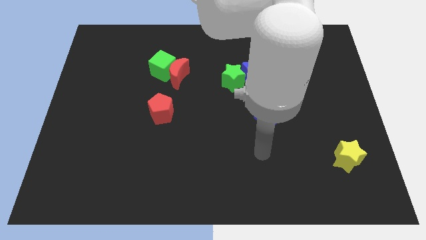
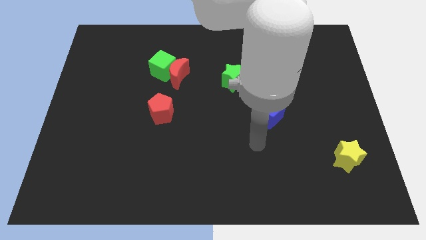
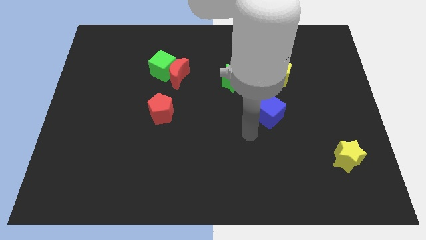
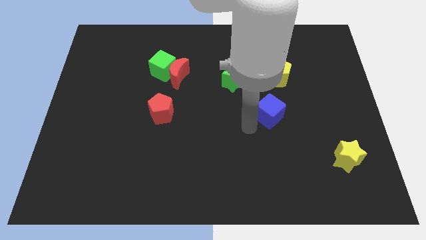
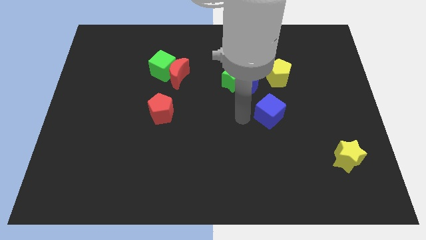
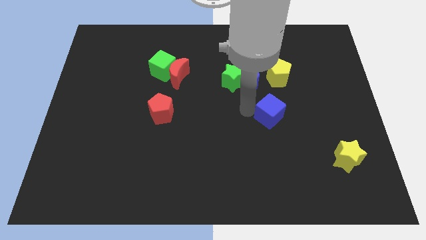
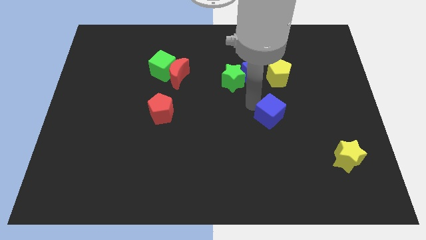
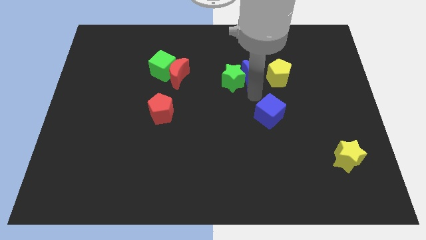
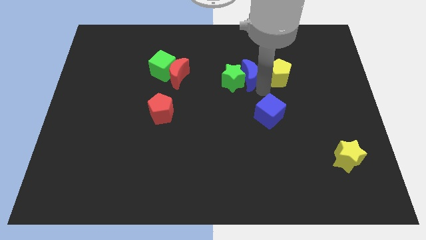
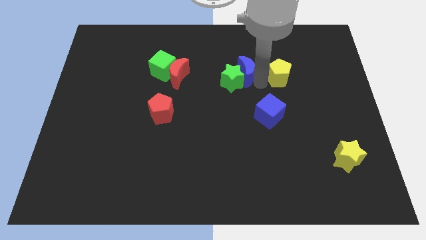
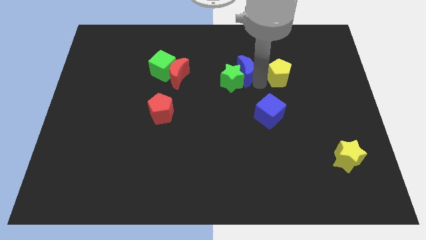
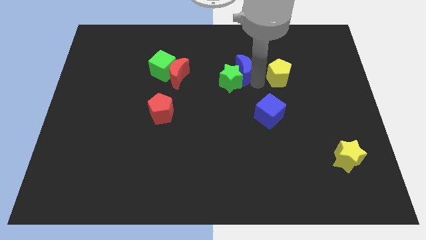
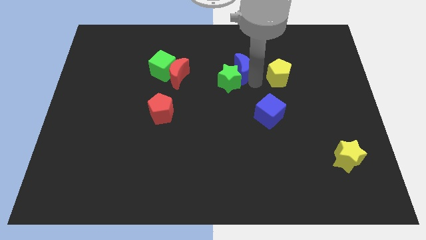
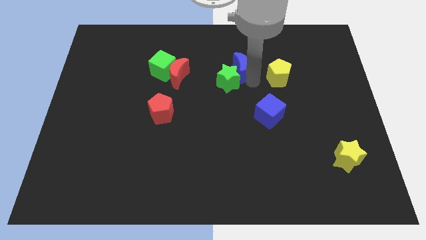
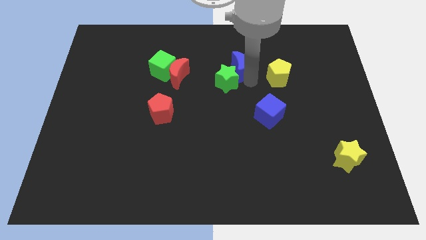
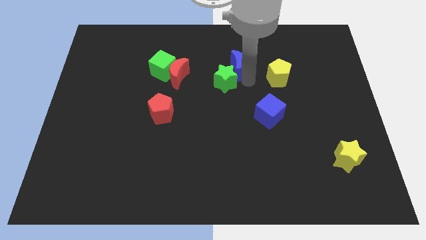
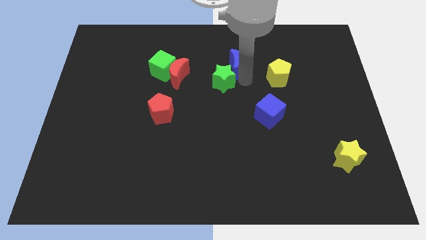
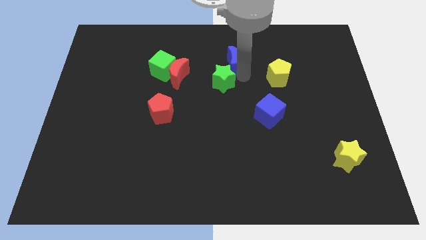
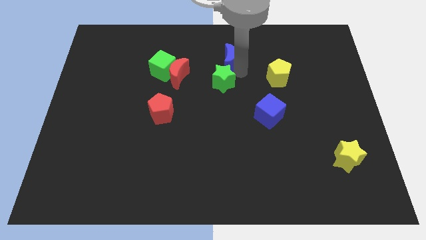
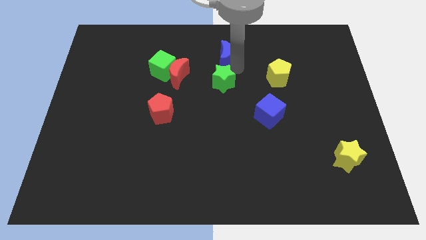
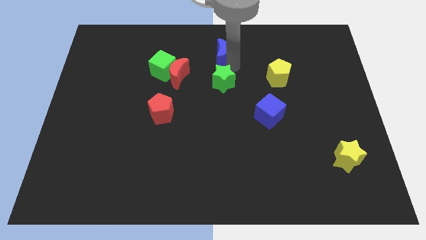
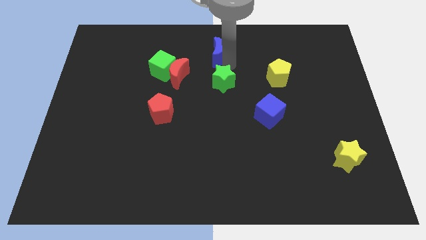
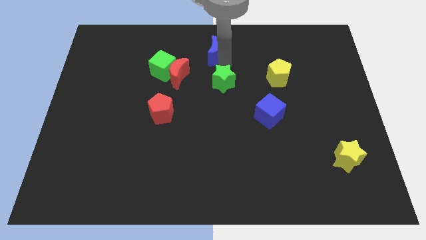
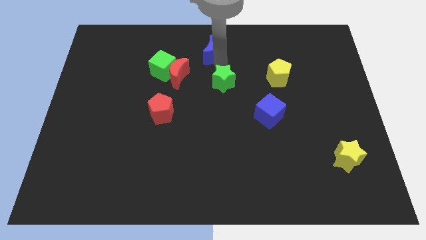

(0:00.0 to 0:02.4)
move the green star away from the blue moon

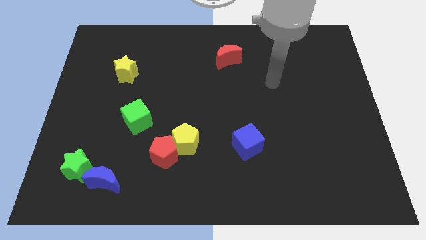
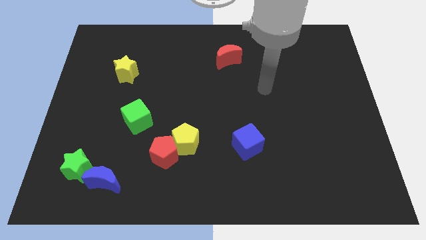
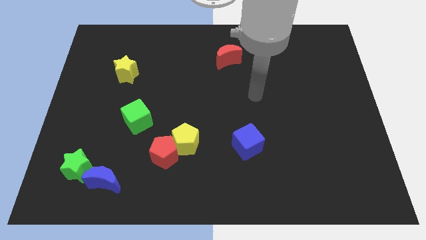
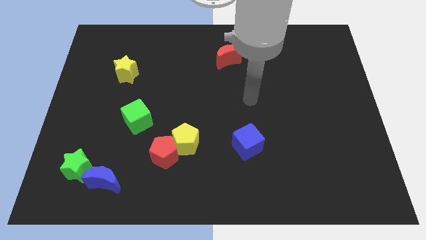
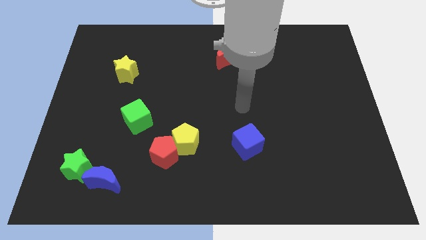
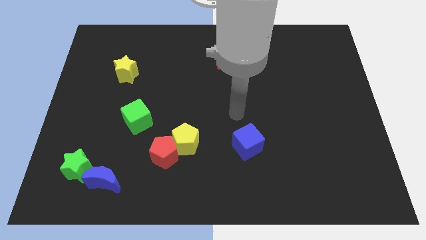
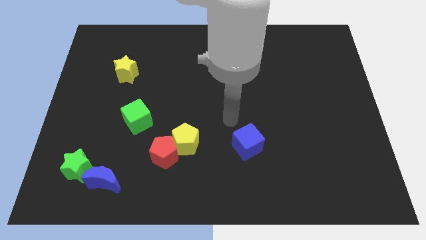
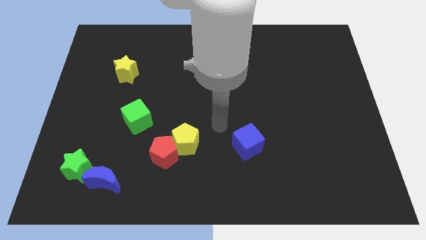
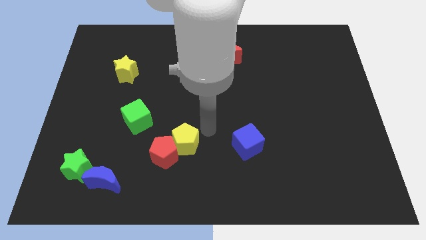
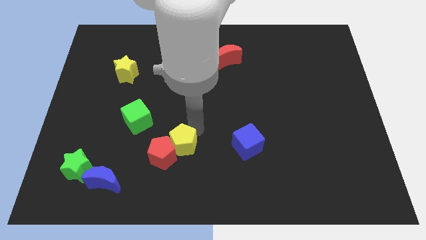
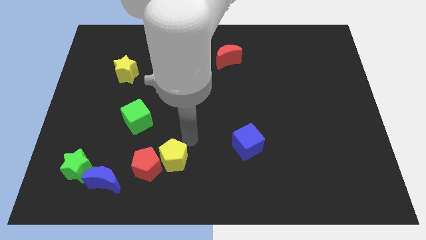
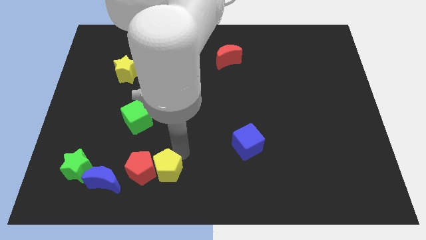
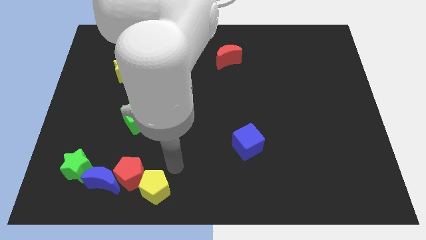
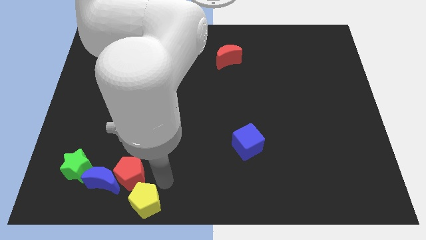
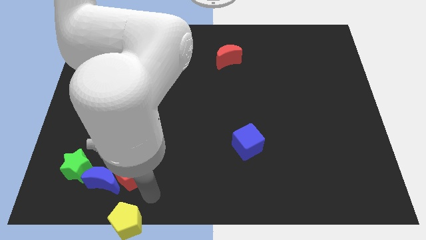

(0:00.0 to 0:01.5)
move the red pentagon away from the yellow pentagon

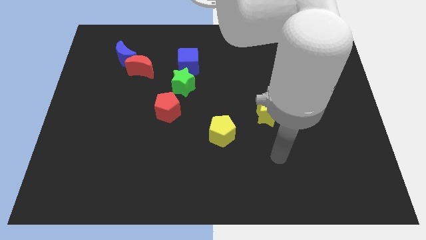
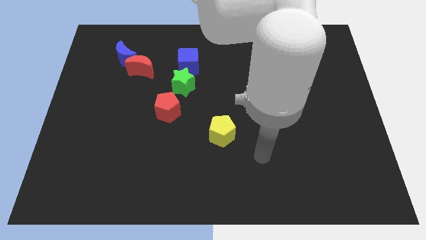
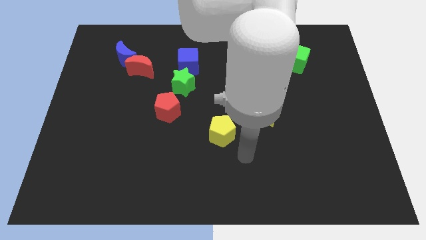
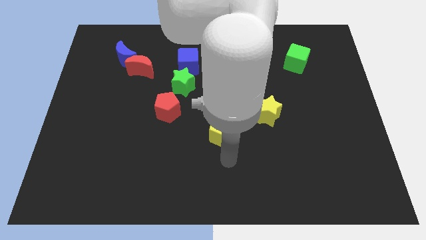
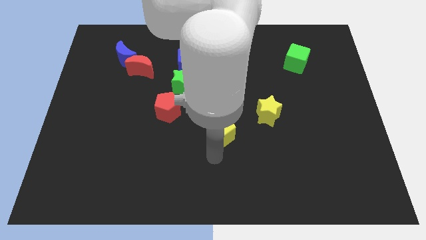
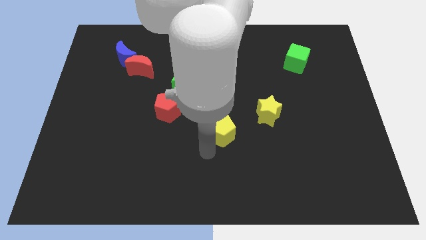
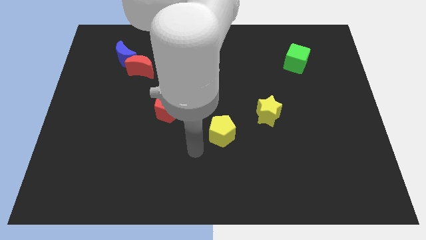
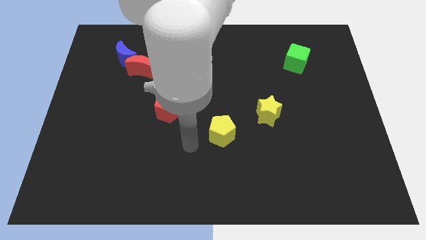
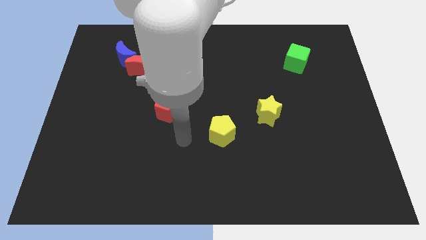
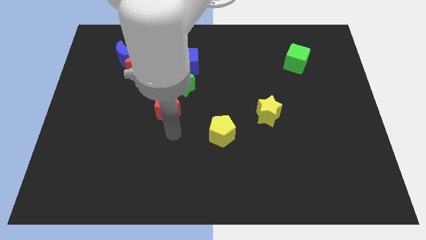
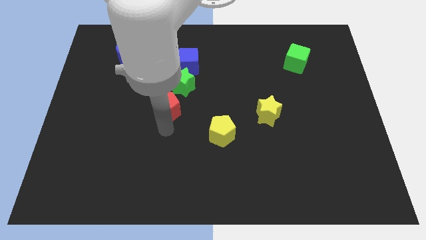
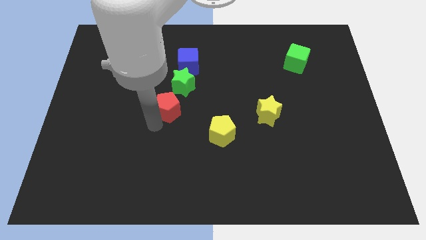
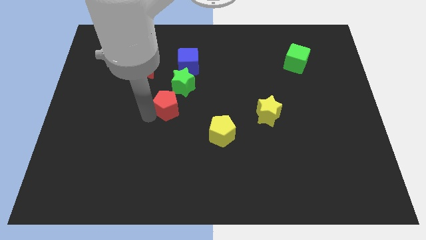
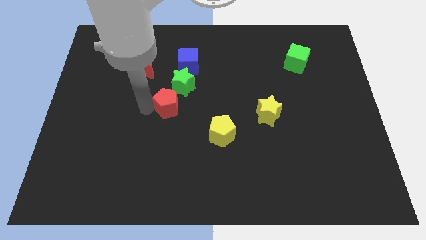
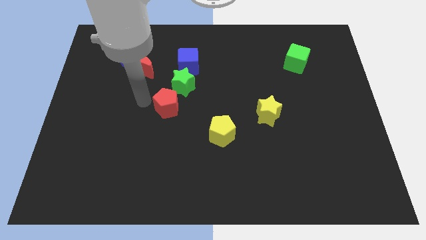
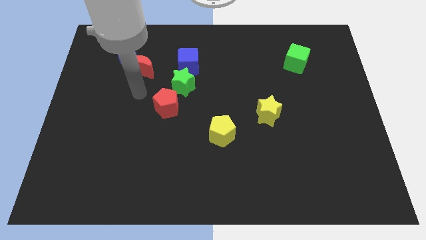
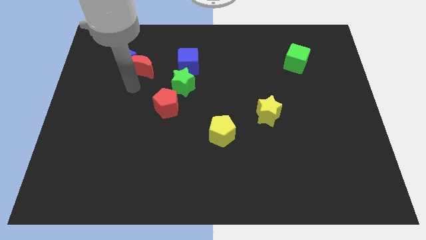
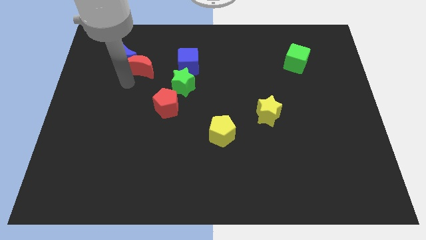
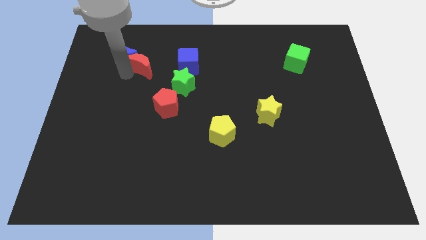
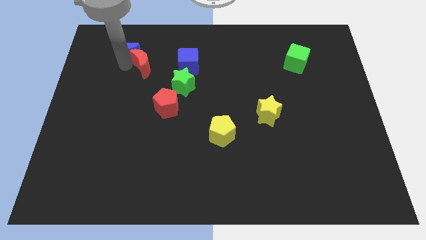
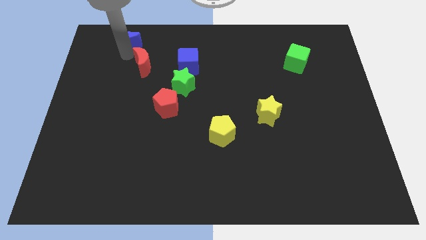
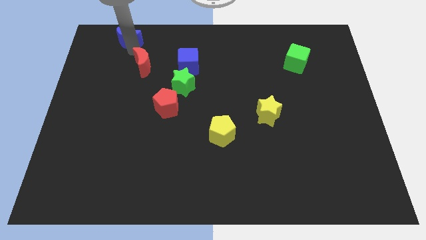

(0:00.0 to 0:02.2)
separate the red moon from the blue moon

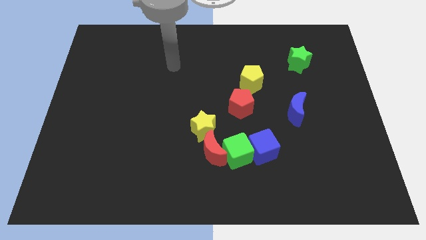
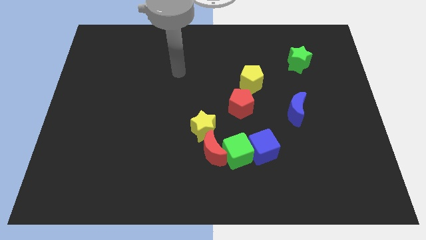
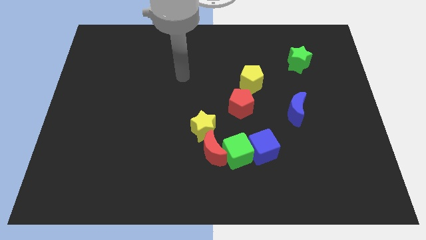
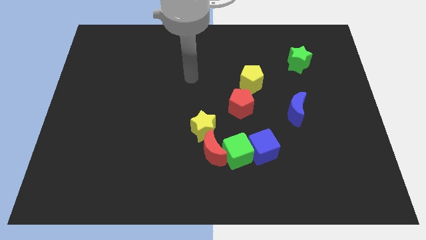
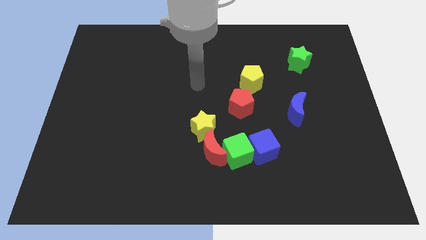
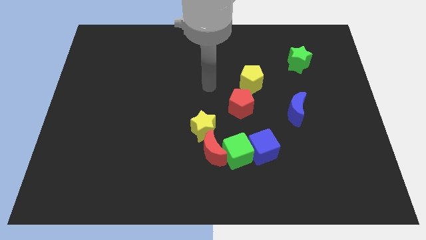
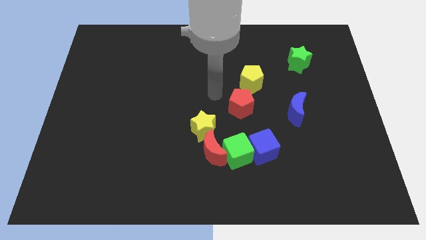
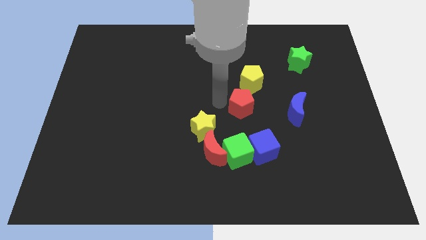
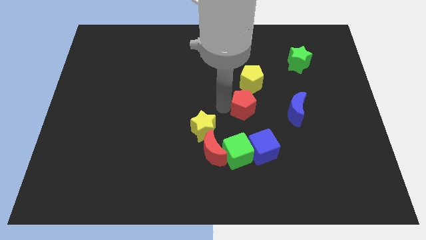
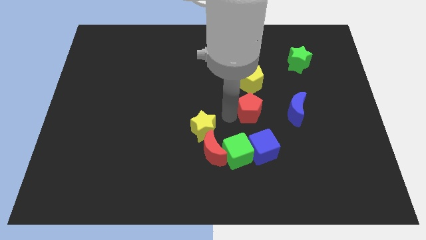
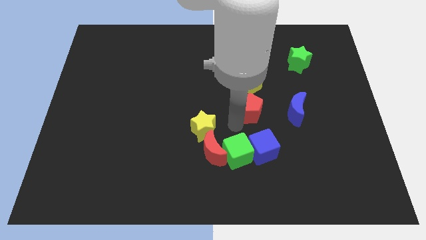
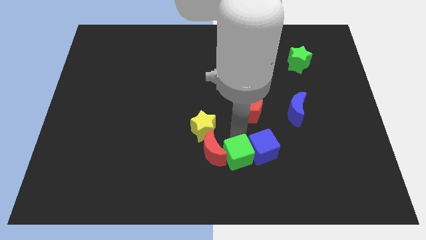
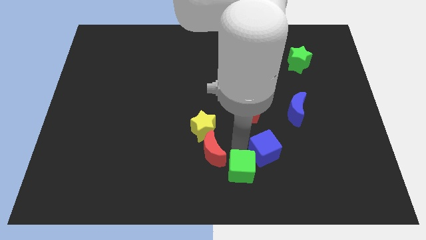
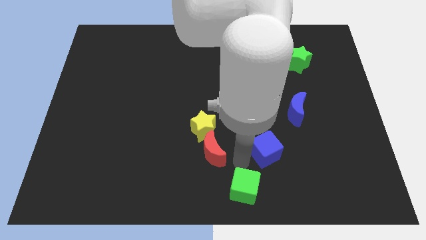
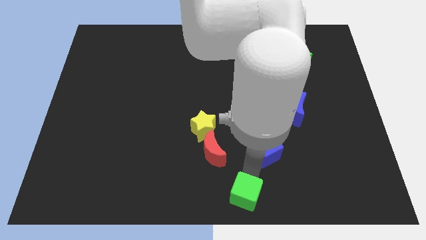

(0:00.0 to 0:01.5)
move the blue cube away from the green cube

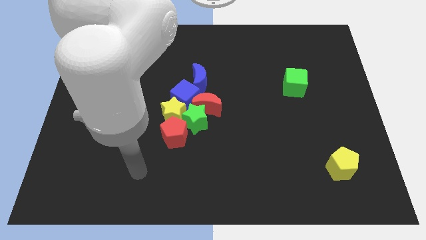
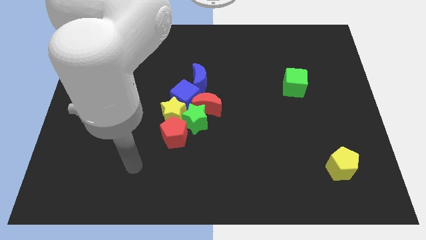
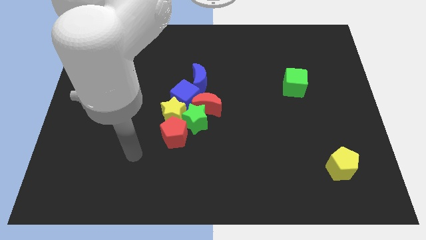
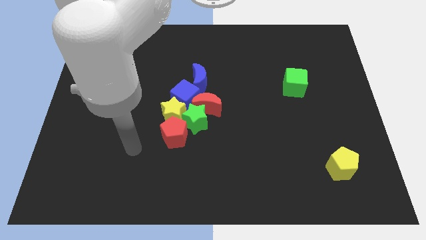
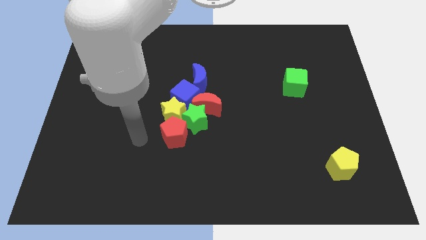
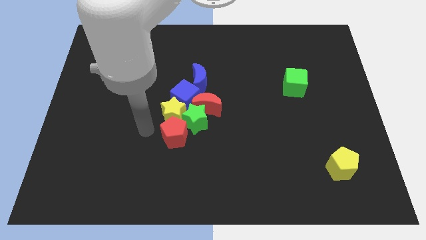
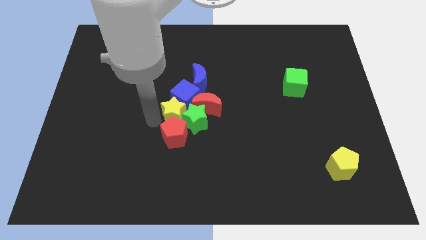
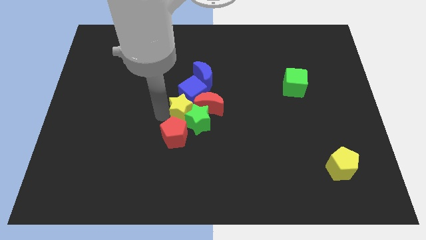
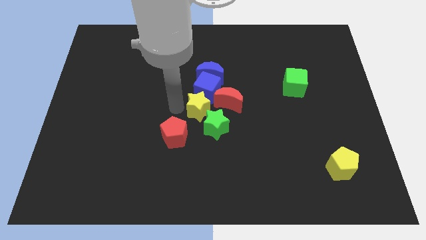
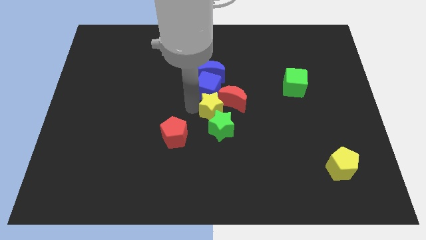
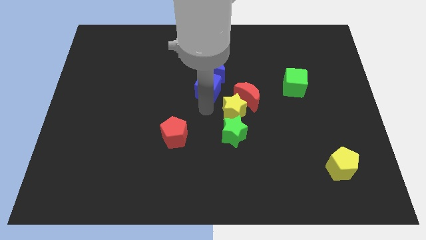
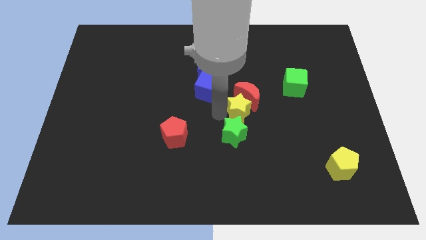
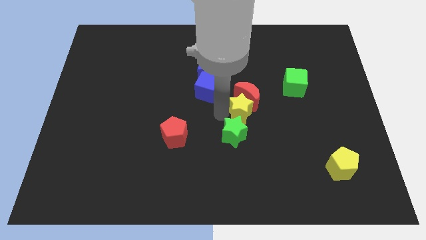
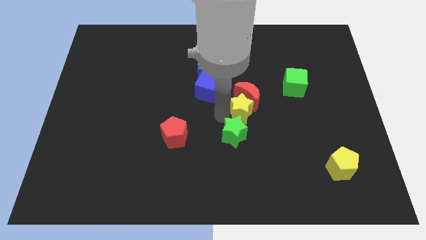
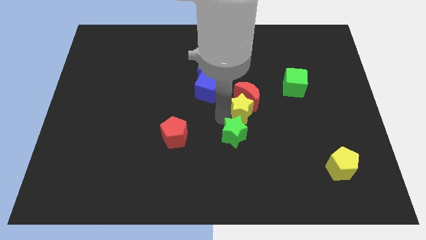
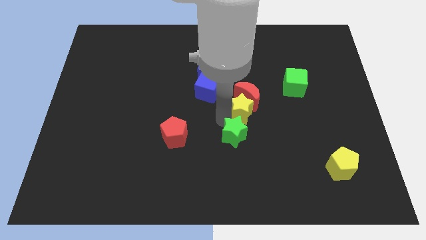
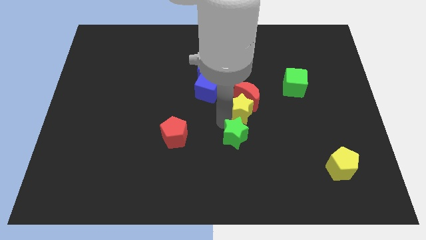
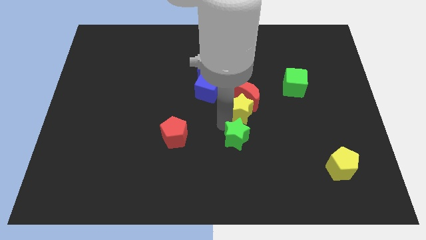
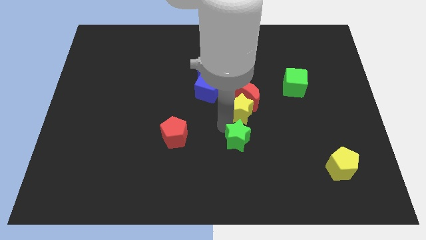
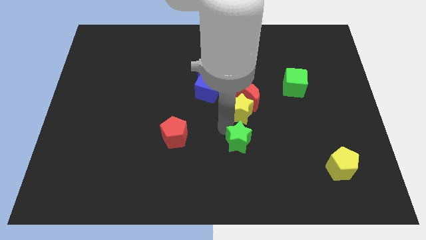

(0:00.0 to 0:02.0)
separate the green star from the group of blocks
